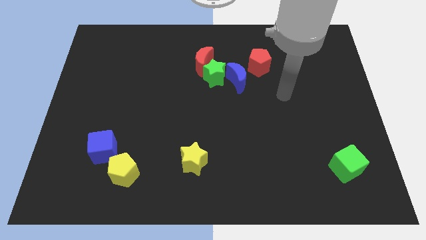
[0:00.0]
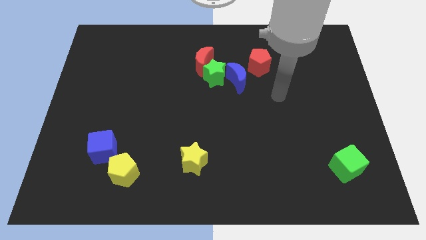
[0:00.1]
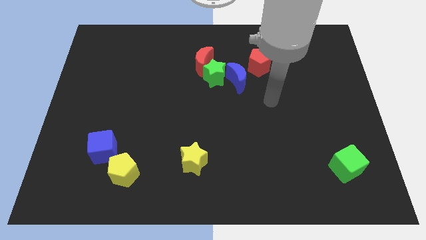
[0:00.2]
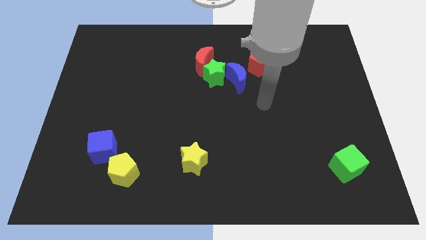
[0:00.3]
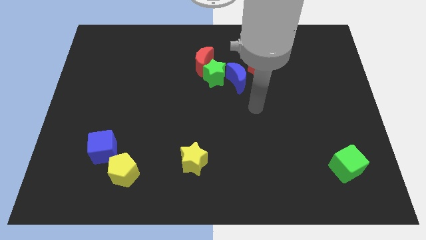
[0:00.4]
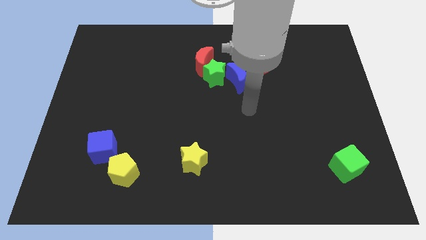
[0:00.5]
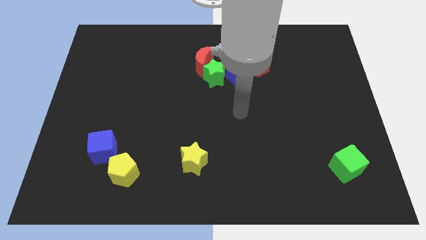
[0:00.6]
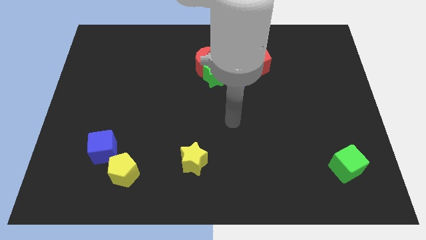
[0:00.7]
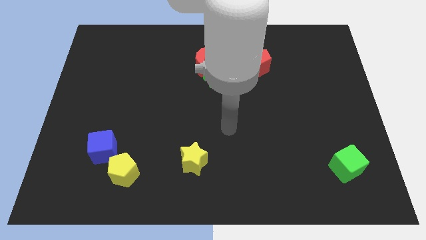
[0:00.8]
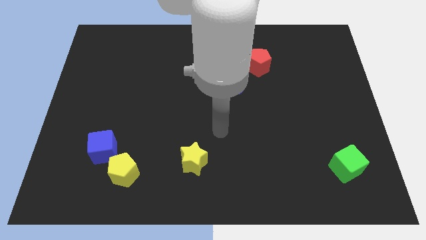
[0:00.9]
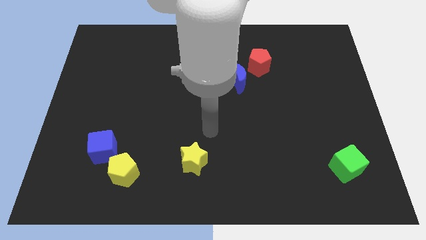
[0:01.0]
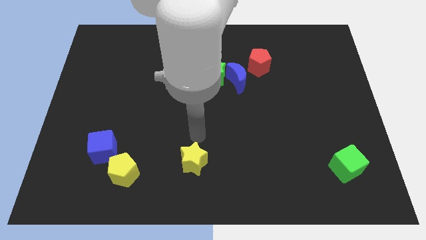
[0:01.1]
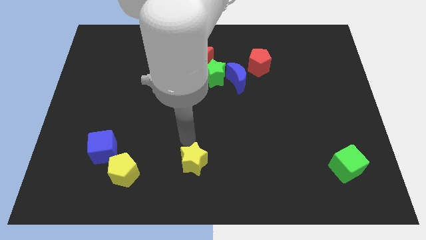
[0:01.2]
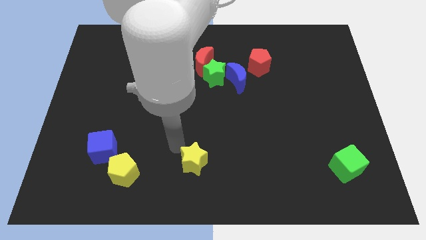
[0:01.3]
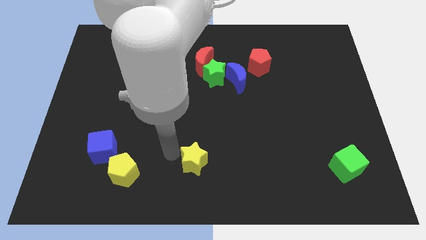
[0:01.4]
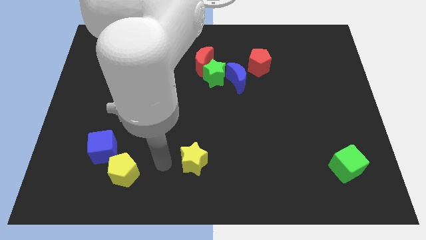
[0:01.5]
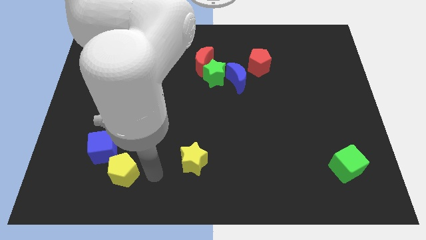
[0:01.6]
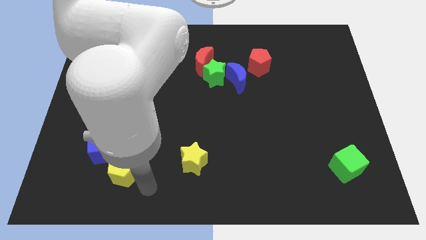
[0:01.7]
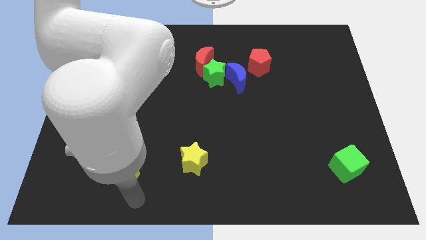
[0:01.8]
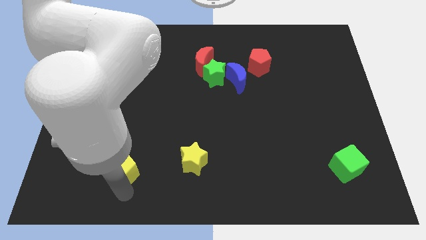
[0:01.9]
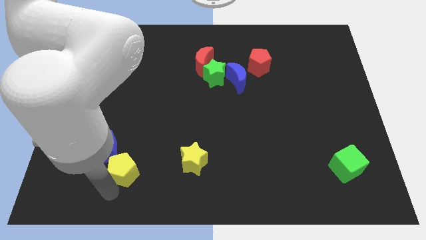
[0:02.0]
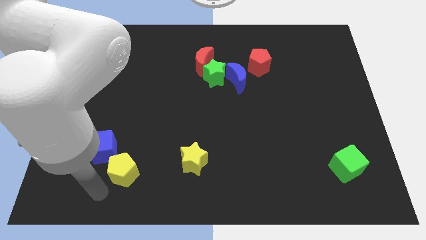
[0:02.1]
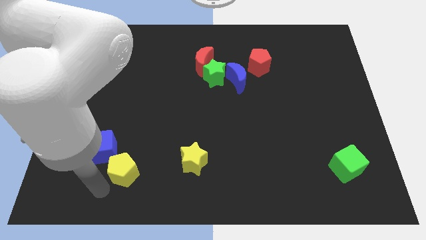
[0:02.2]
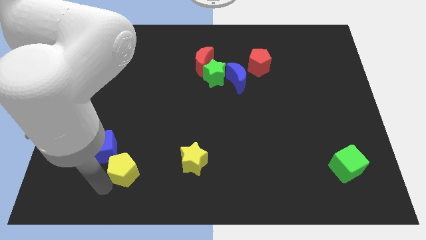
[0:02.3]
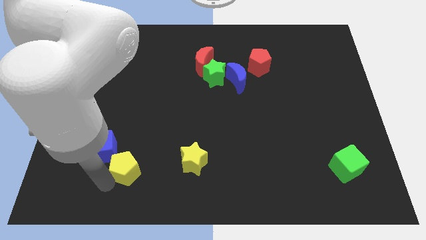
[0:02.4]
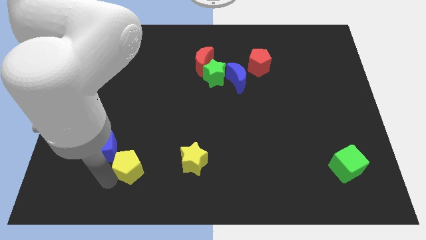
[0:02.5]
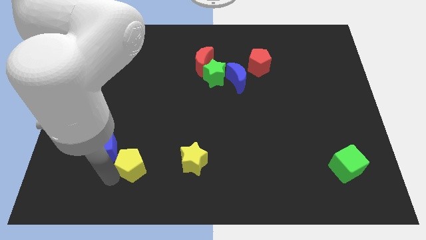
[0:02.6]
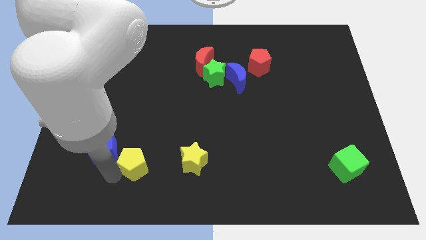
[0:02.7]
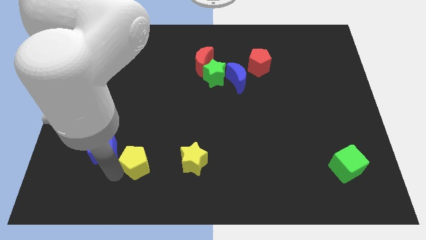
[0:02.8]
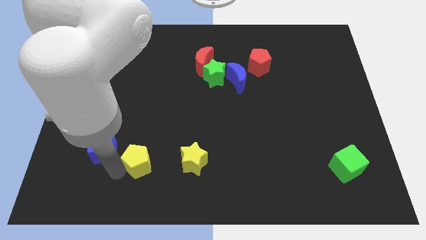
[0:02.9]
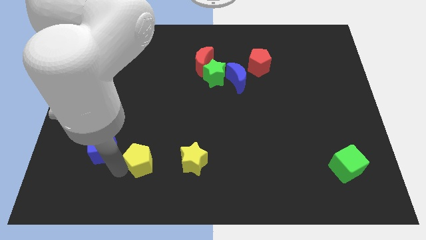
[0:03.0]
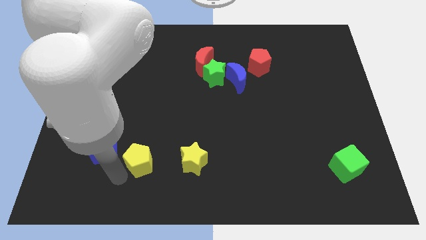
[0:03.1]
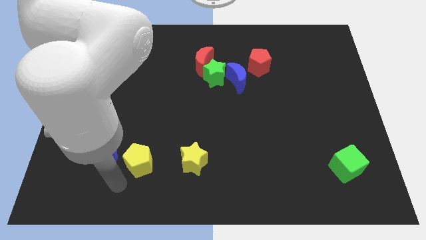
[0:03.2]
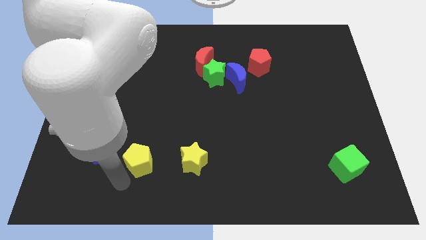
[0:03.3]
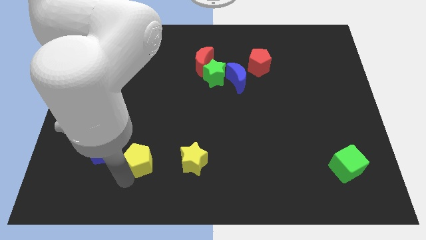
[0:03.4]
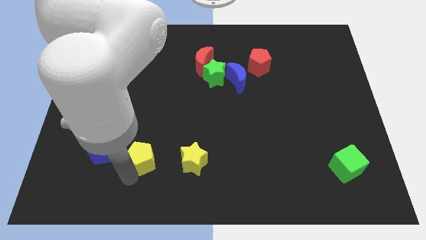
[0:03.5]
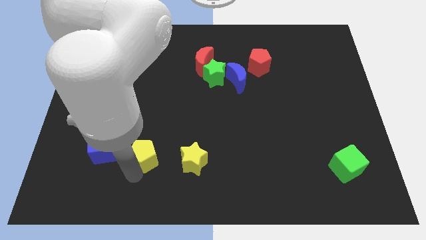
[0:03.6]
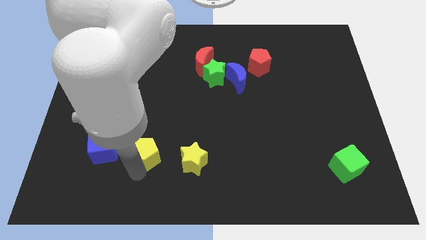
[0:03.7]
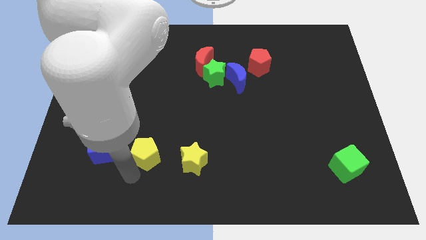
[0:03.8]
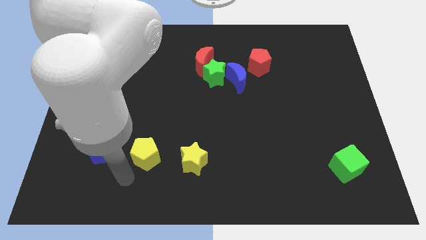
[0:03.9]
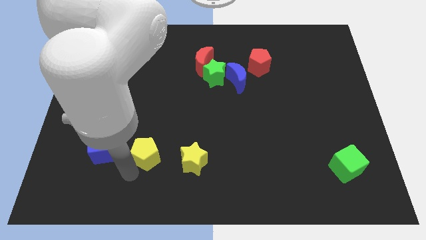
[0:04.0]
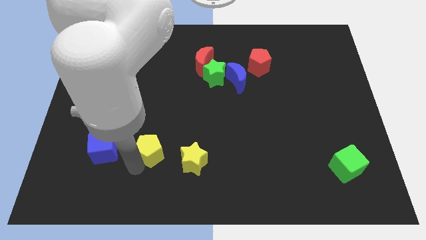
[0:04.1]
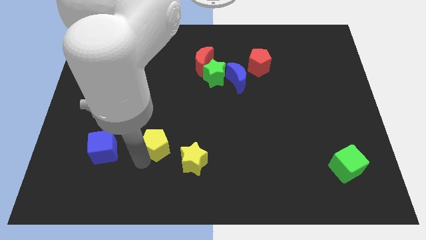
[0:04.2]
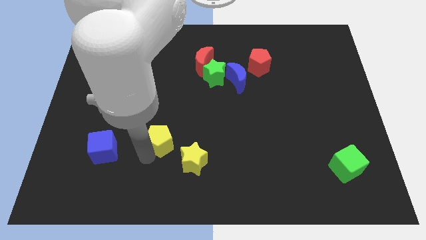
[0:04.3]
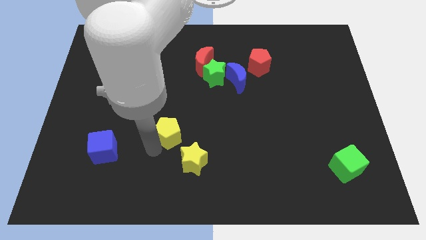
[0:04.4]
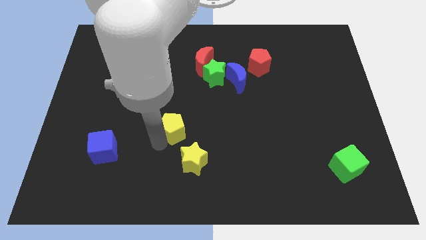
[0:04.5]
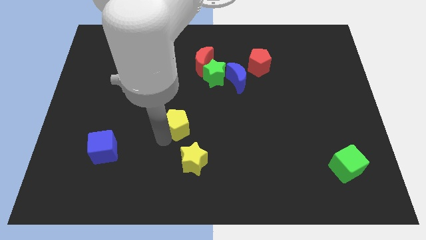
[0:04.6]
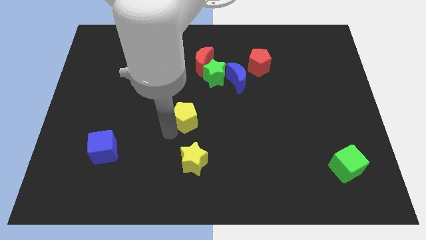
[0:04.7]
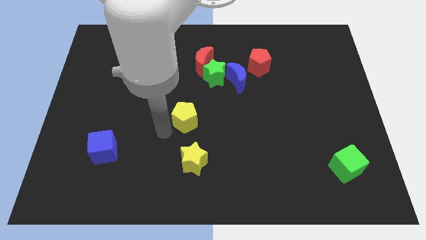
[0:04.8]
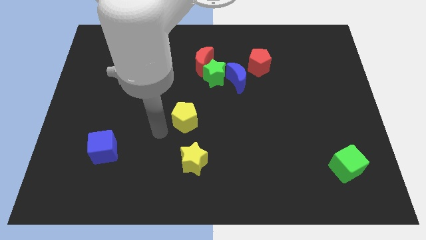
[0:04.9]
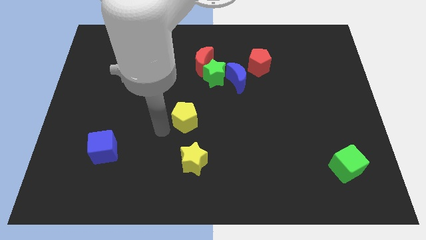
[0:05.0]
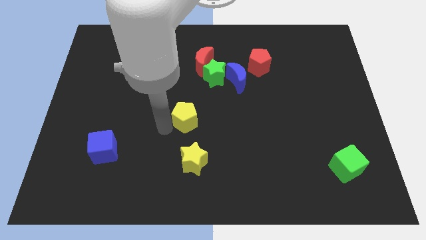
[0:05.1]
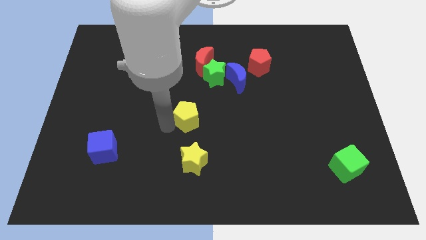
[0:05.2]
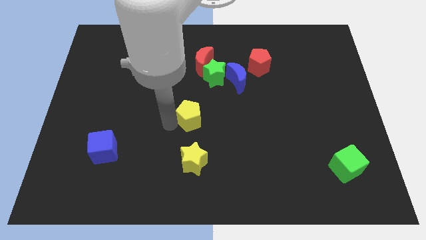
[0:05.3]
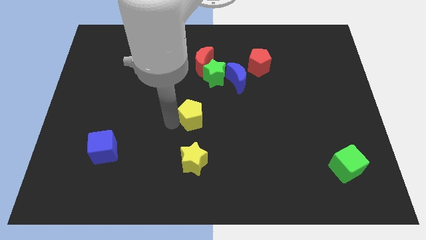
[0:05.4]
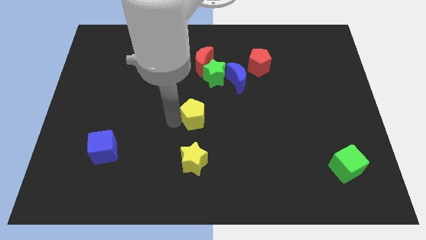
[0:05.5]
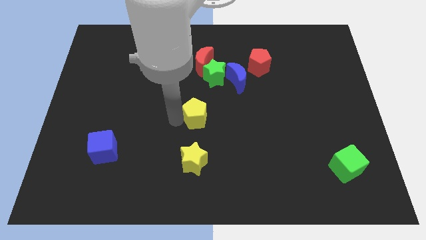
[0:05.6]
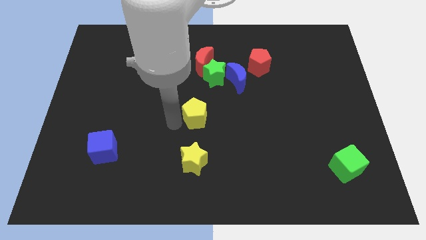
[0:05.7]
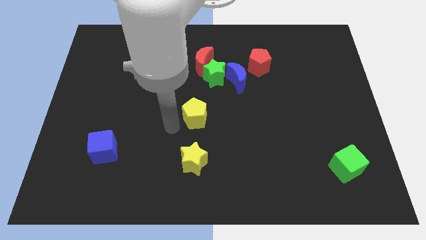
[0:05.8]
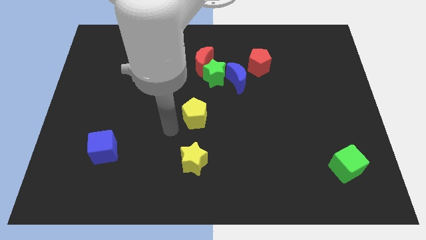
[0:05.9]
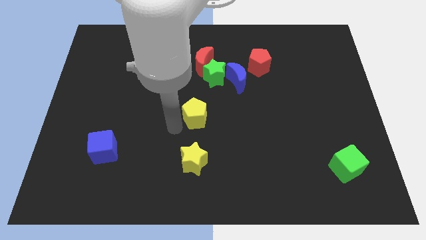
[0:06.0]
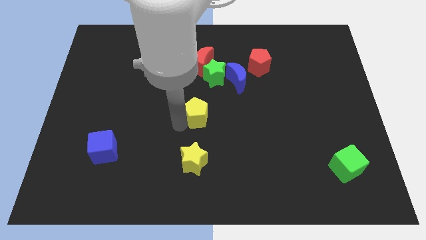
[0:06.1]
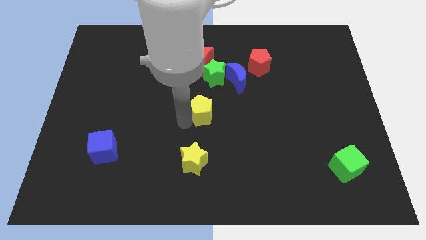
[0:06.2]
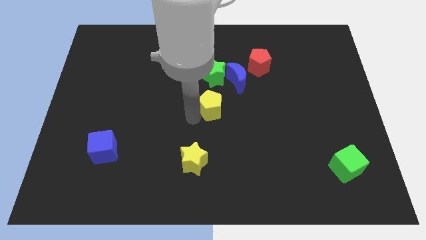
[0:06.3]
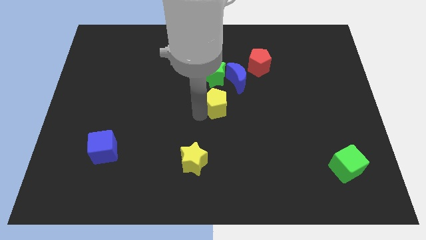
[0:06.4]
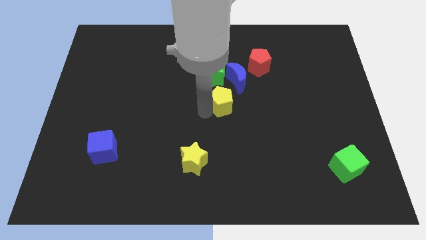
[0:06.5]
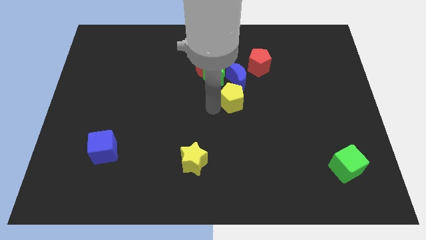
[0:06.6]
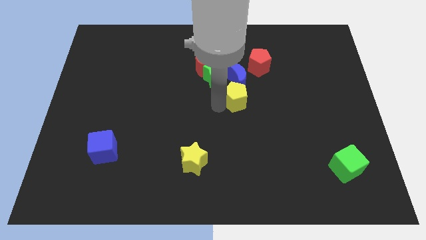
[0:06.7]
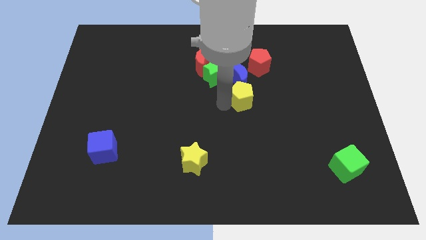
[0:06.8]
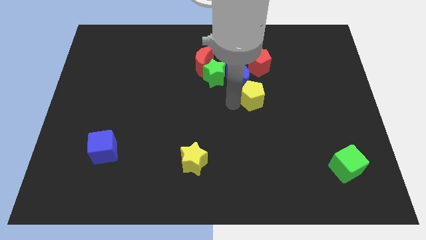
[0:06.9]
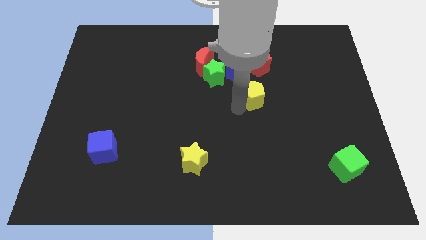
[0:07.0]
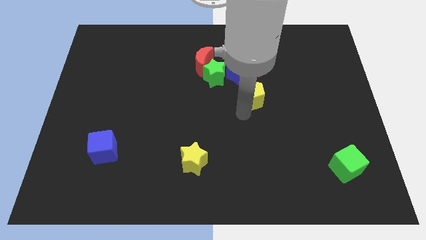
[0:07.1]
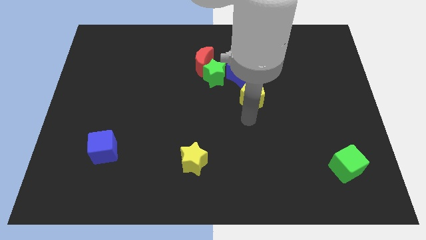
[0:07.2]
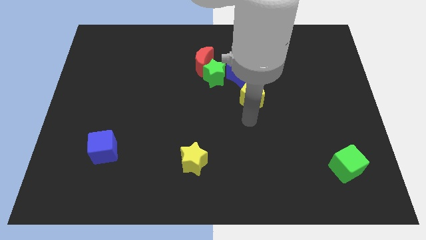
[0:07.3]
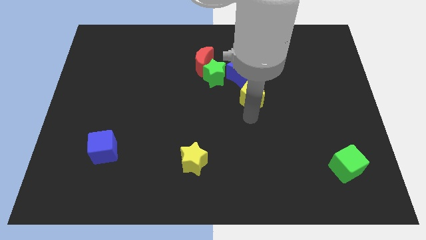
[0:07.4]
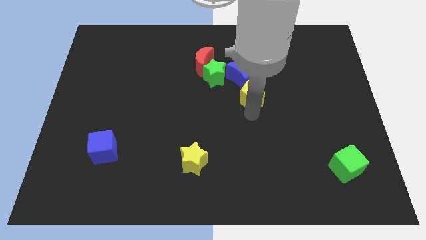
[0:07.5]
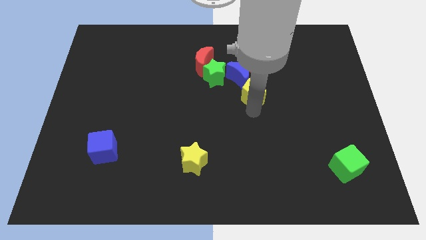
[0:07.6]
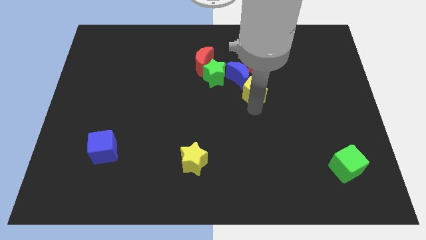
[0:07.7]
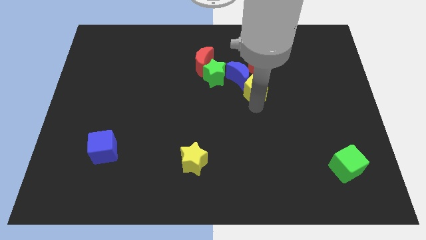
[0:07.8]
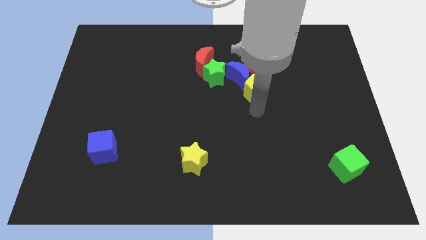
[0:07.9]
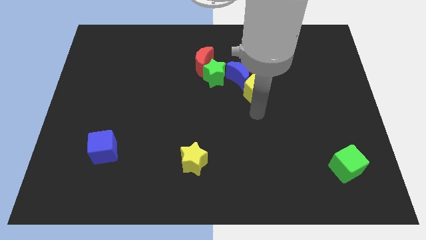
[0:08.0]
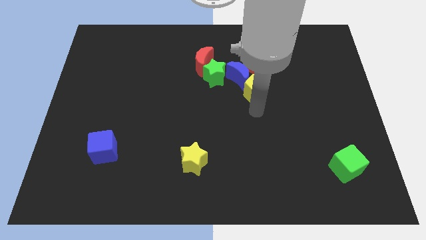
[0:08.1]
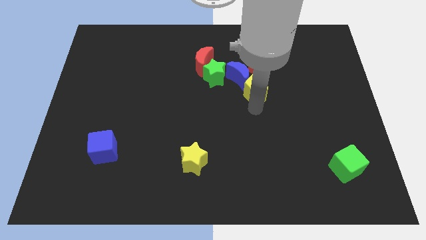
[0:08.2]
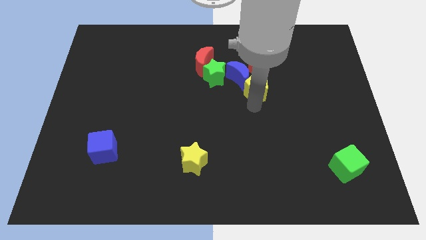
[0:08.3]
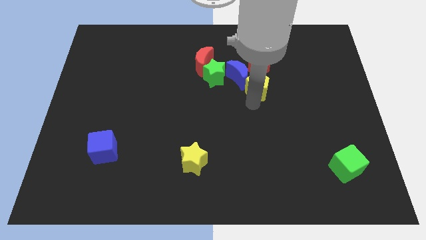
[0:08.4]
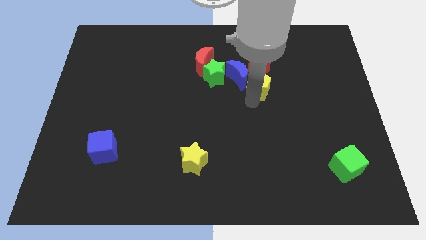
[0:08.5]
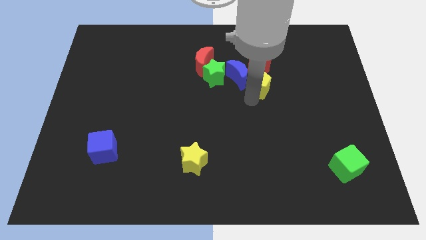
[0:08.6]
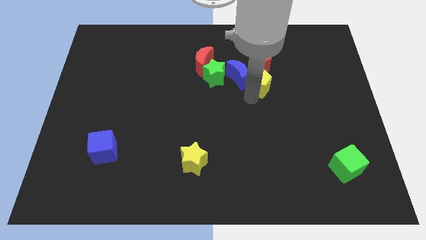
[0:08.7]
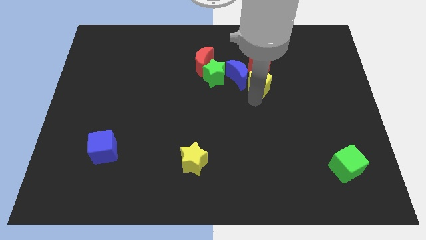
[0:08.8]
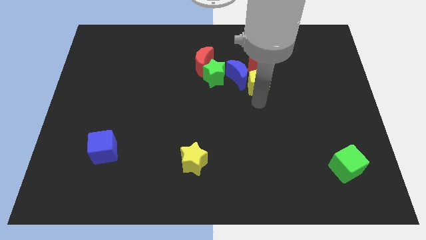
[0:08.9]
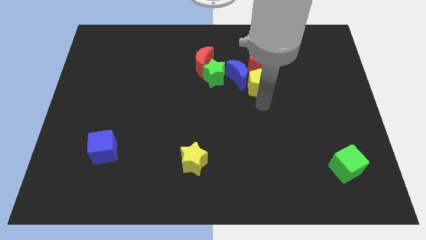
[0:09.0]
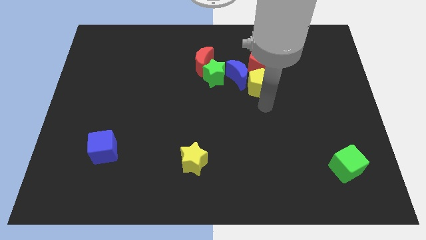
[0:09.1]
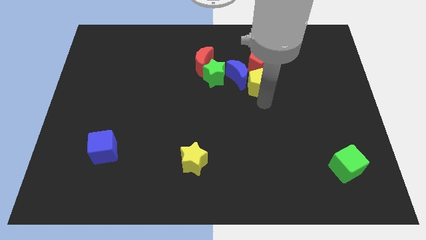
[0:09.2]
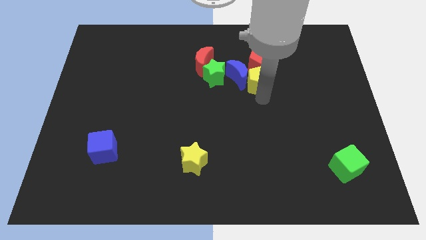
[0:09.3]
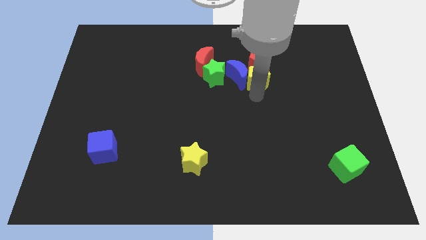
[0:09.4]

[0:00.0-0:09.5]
move the yellow pentagon close to the red pentagon
